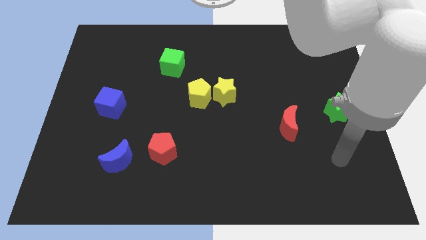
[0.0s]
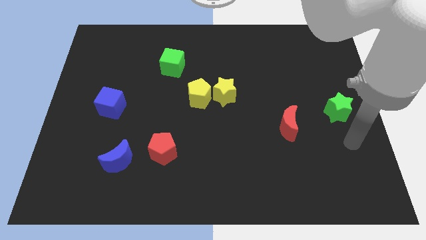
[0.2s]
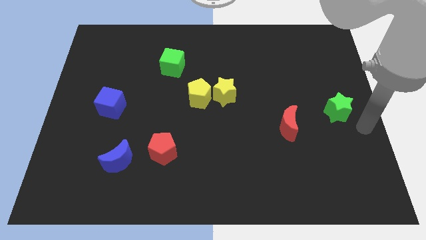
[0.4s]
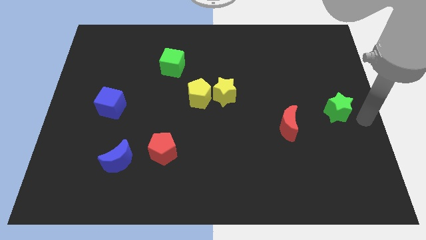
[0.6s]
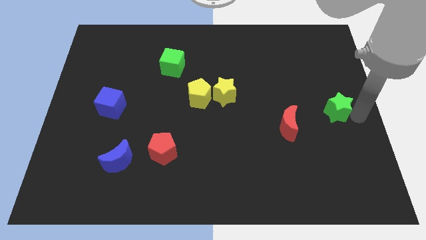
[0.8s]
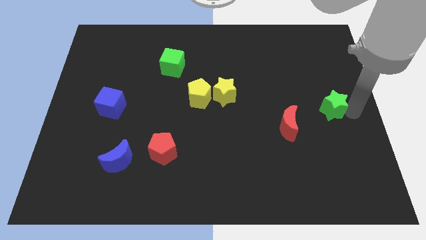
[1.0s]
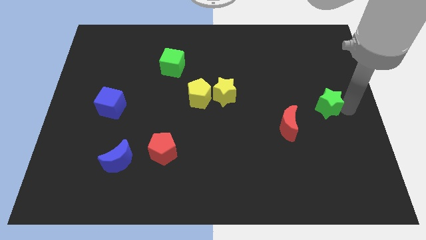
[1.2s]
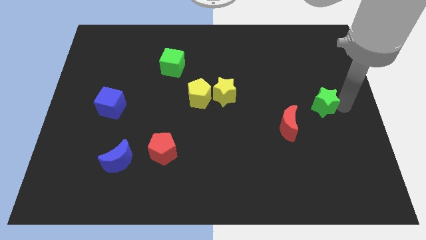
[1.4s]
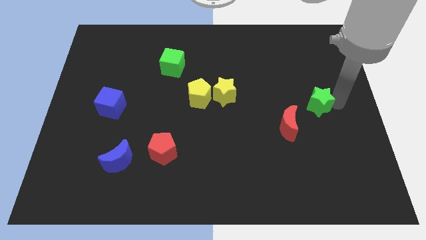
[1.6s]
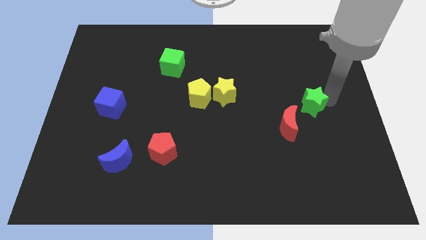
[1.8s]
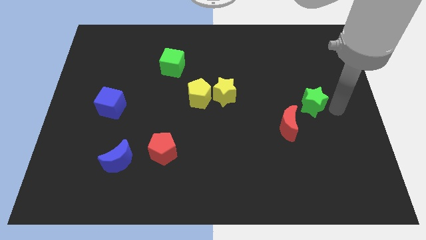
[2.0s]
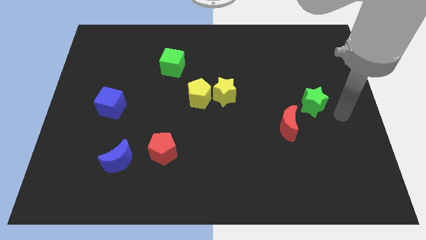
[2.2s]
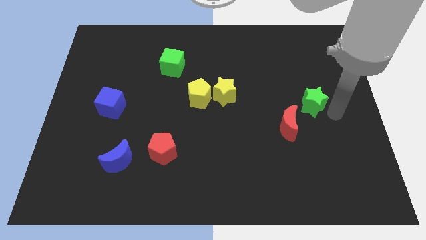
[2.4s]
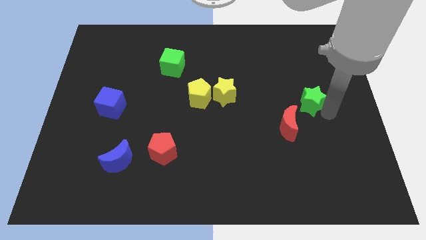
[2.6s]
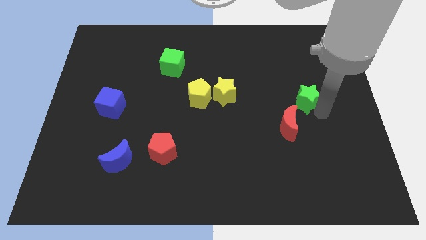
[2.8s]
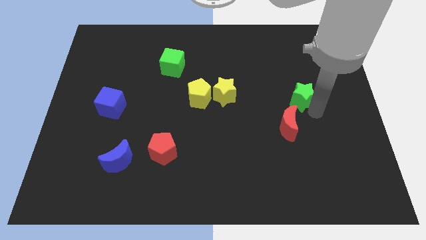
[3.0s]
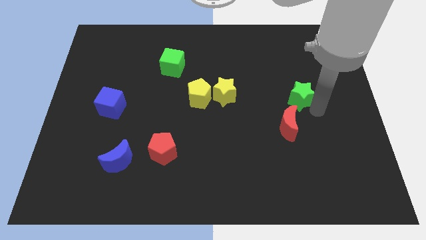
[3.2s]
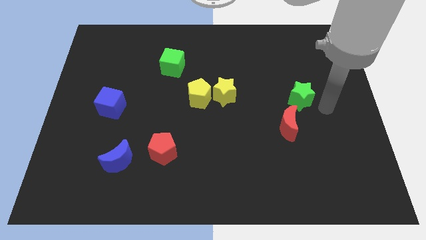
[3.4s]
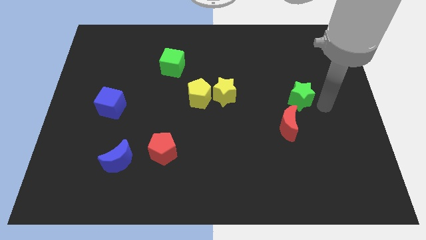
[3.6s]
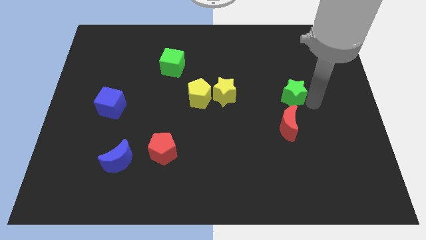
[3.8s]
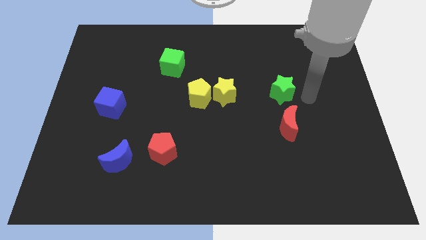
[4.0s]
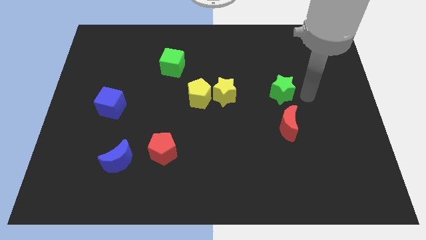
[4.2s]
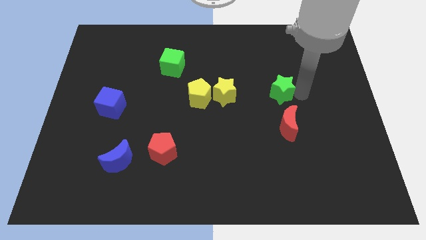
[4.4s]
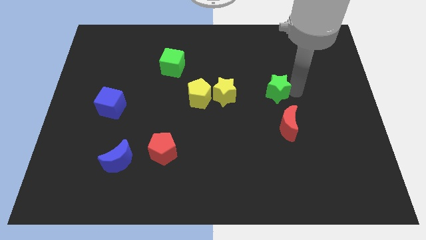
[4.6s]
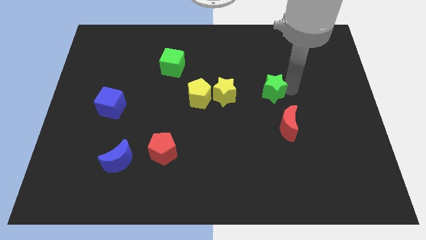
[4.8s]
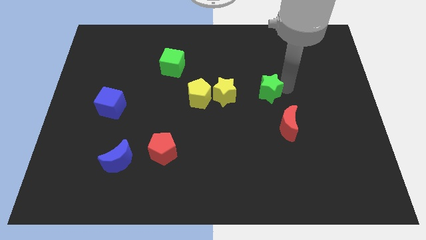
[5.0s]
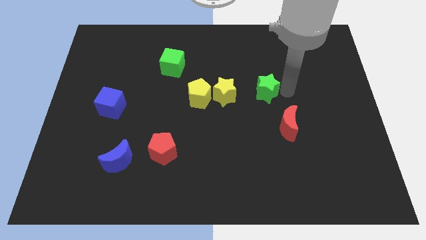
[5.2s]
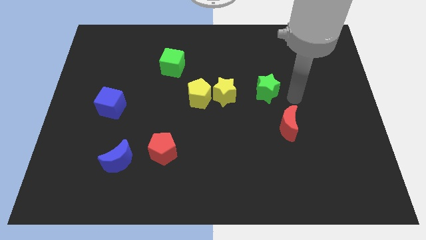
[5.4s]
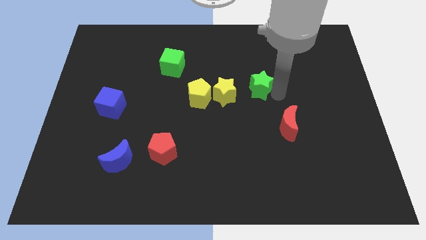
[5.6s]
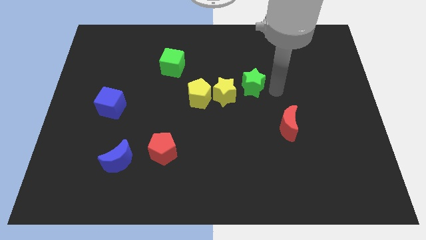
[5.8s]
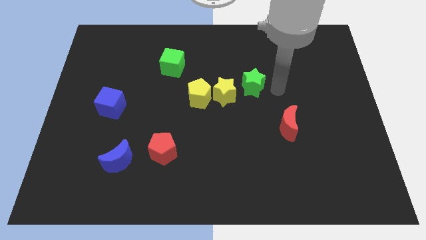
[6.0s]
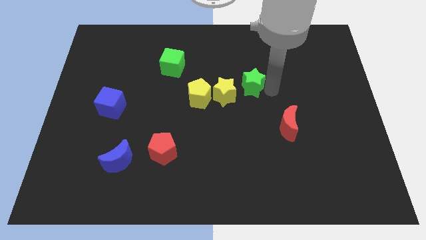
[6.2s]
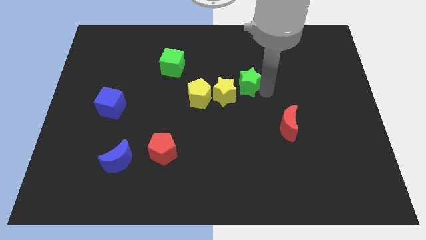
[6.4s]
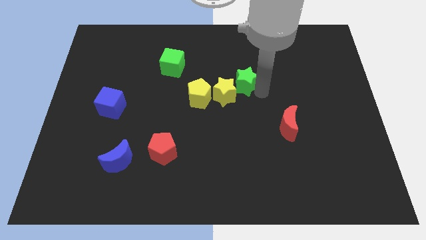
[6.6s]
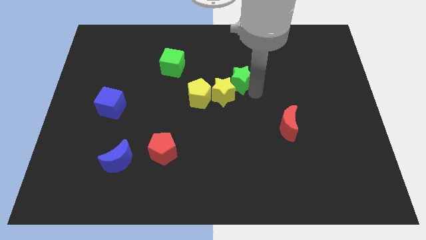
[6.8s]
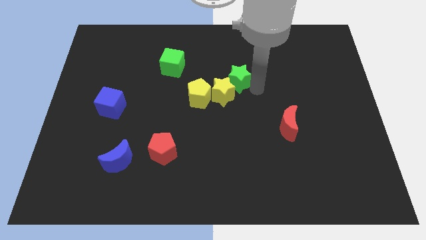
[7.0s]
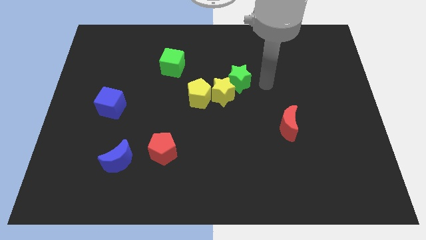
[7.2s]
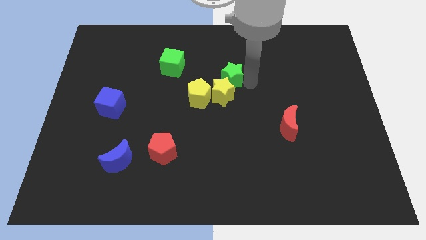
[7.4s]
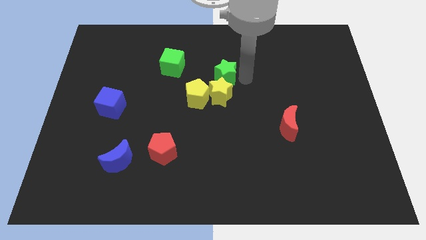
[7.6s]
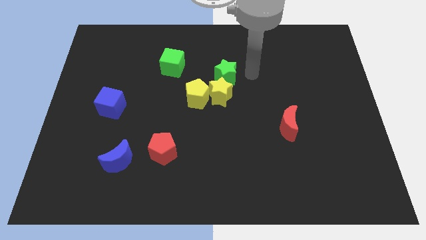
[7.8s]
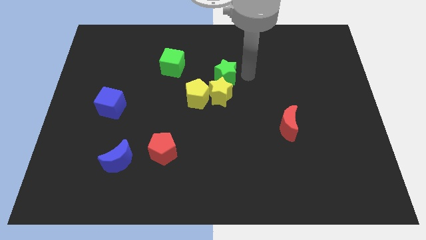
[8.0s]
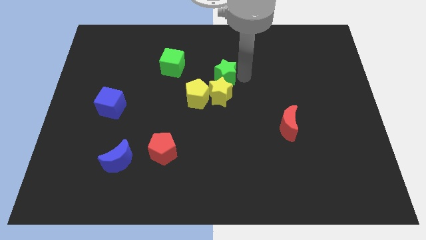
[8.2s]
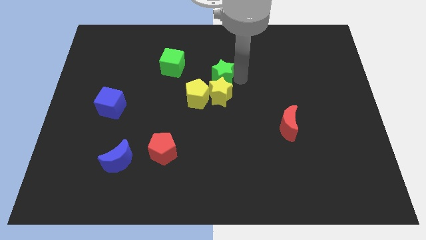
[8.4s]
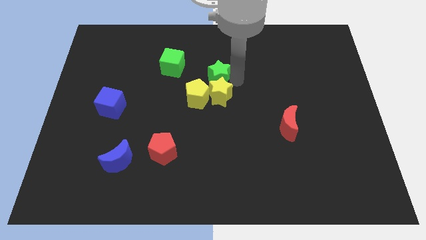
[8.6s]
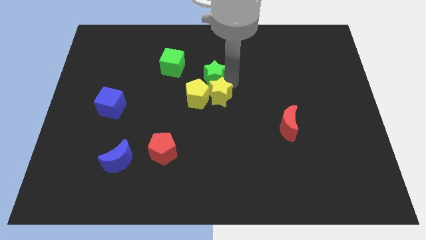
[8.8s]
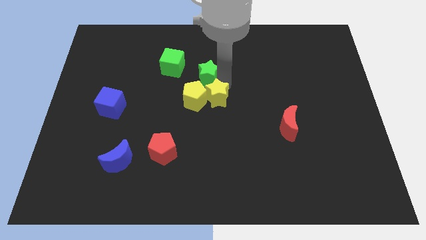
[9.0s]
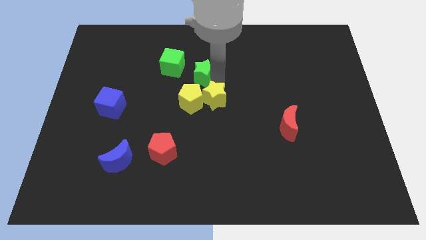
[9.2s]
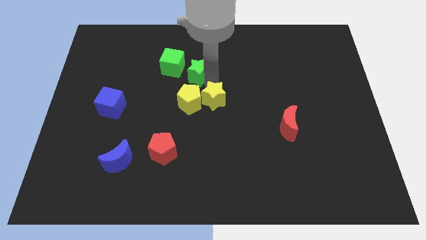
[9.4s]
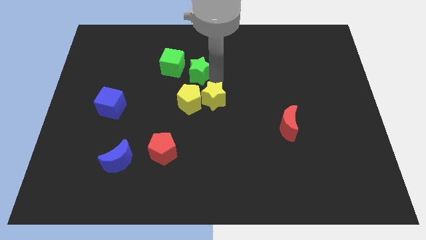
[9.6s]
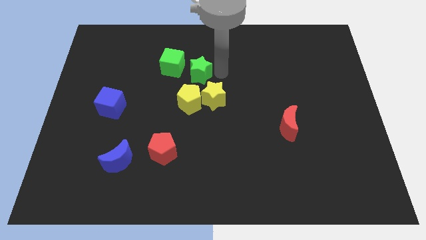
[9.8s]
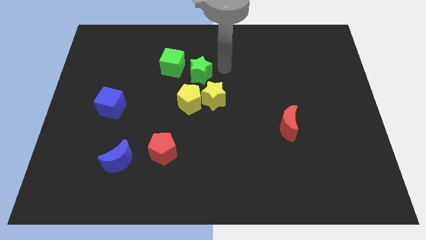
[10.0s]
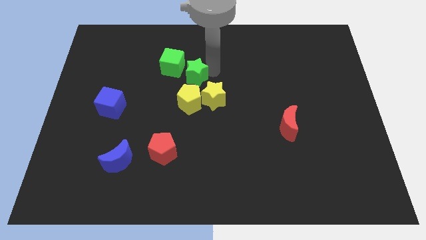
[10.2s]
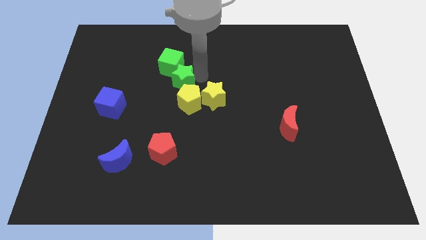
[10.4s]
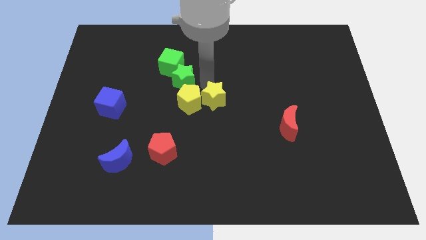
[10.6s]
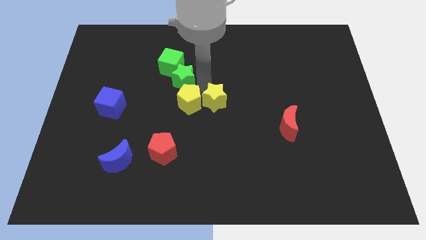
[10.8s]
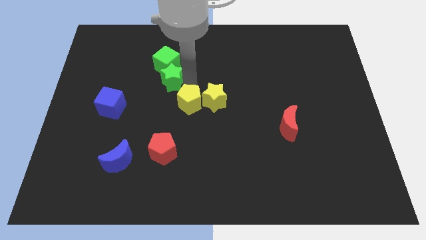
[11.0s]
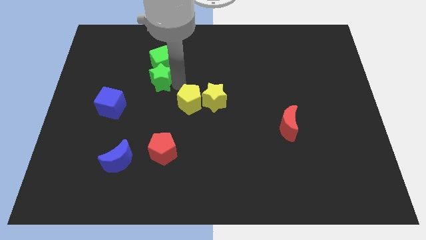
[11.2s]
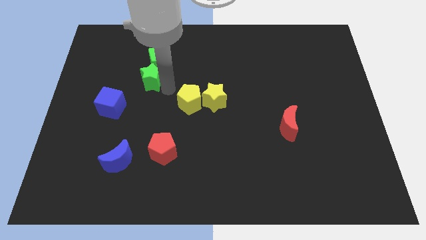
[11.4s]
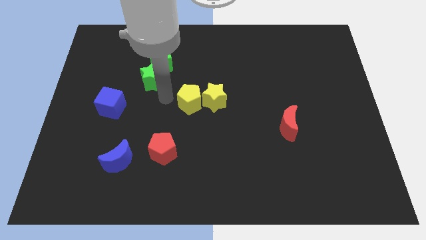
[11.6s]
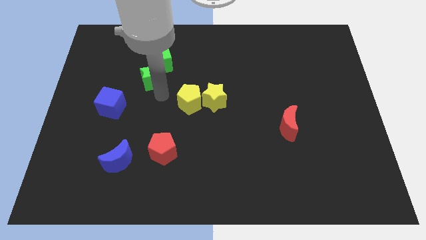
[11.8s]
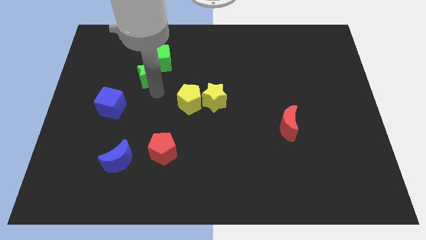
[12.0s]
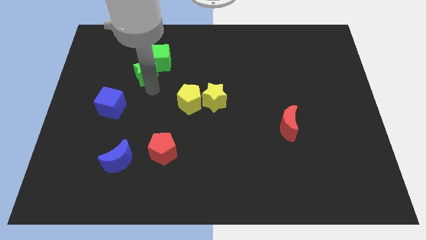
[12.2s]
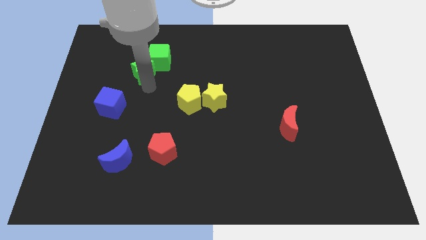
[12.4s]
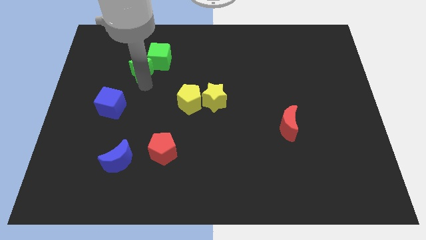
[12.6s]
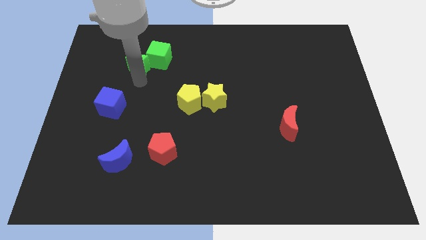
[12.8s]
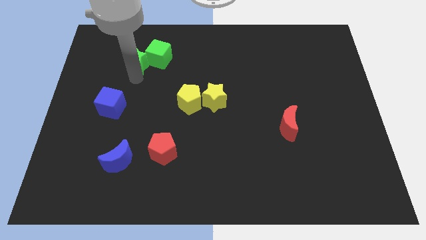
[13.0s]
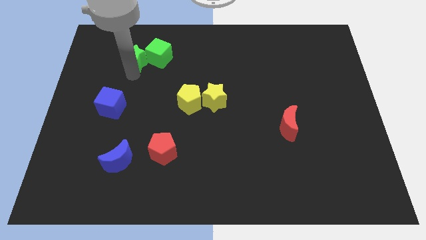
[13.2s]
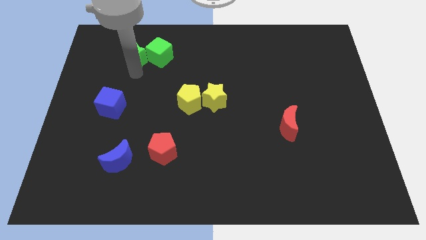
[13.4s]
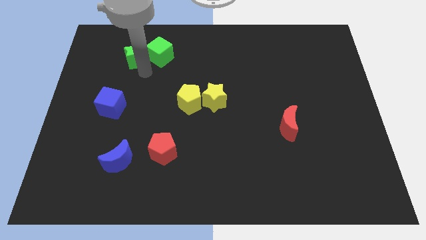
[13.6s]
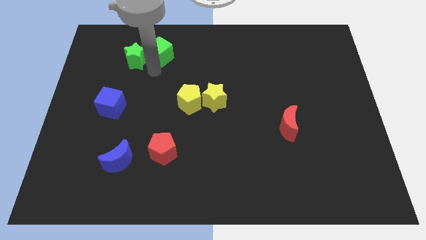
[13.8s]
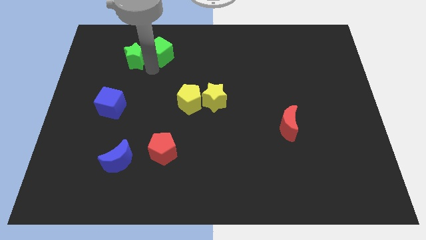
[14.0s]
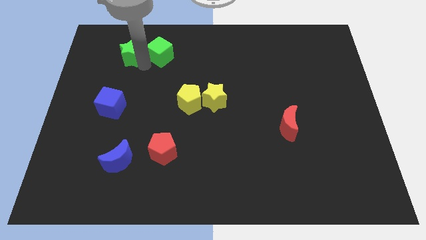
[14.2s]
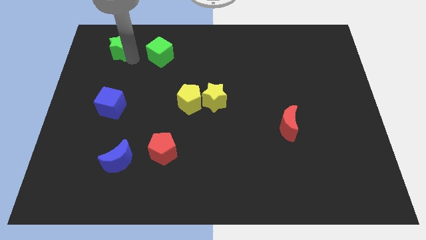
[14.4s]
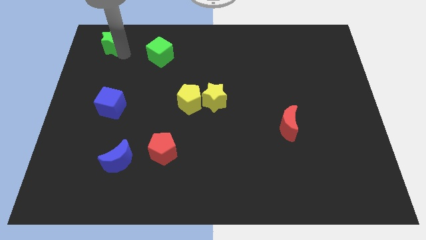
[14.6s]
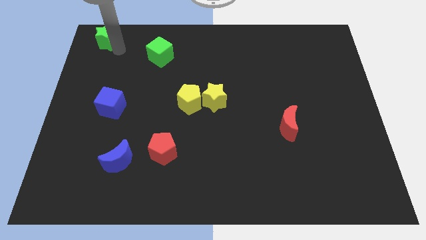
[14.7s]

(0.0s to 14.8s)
move the green star to the upper left corner
